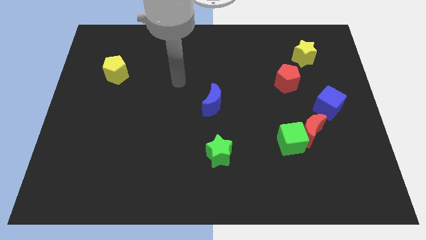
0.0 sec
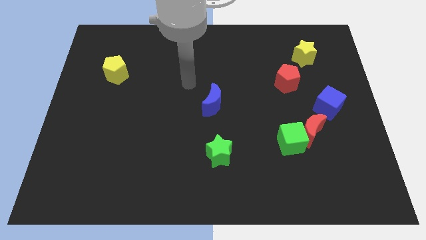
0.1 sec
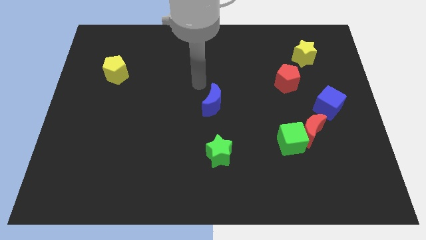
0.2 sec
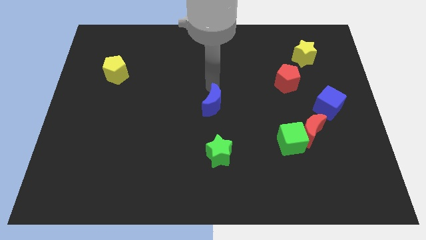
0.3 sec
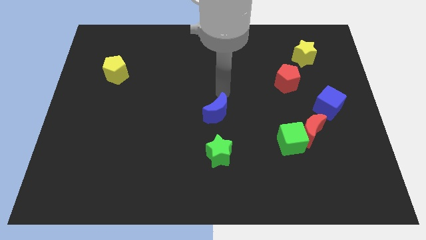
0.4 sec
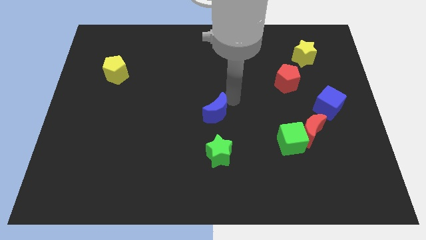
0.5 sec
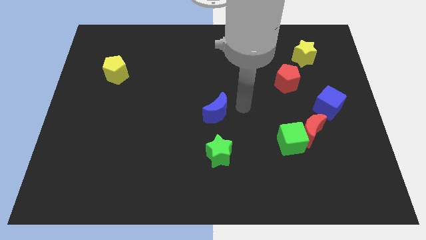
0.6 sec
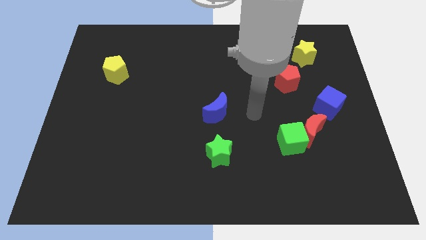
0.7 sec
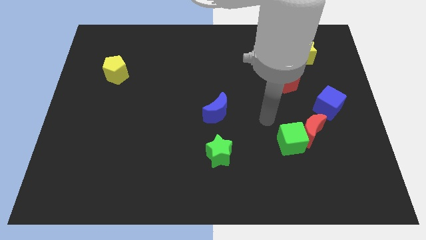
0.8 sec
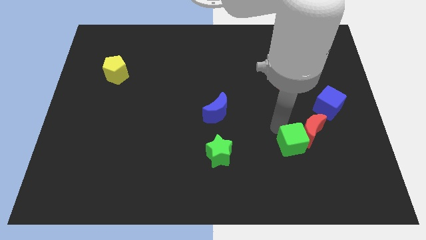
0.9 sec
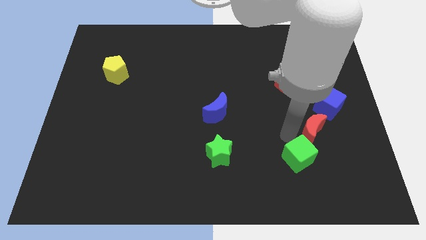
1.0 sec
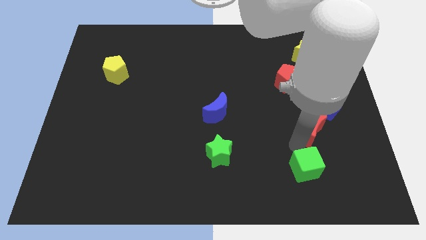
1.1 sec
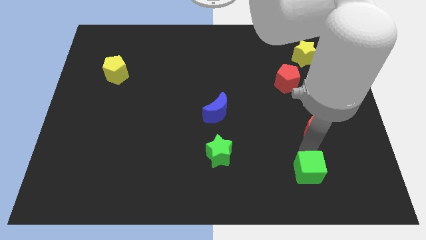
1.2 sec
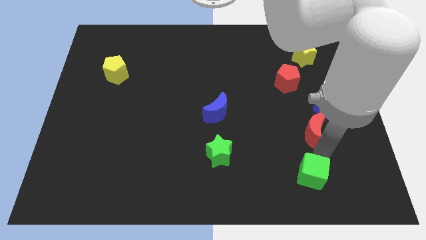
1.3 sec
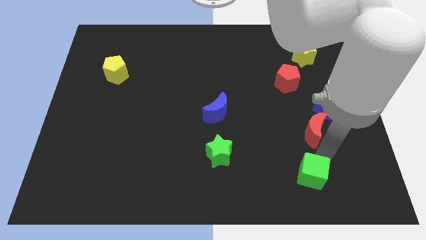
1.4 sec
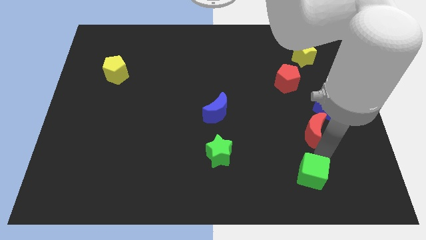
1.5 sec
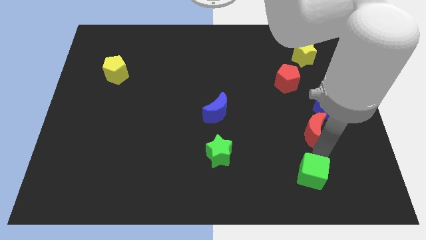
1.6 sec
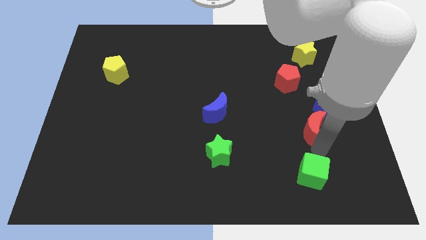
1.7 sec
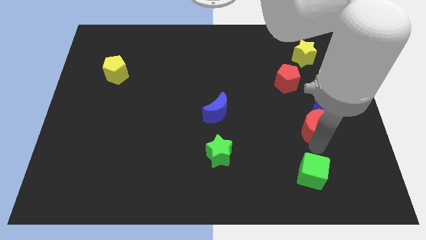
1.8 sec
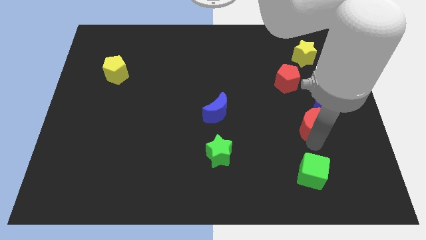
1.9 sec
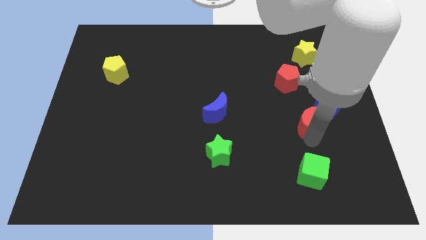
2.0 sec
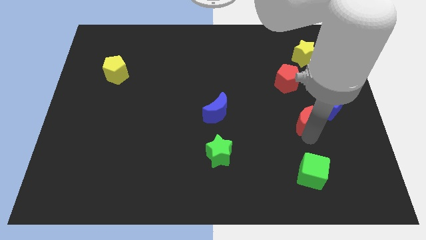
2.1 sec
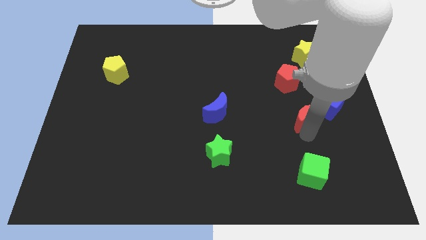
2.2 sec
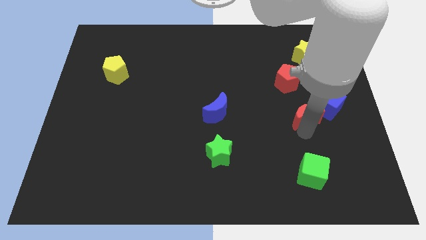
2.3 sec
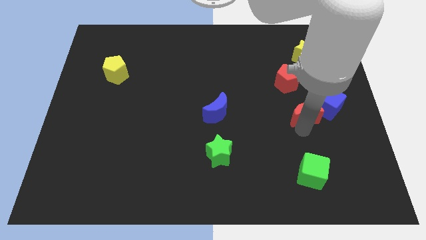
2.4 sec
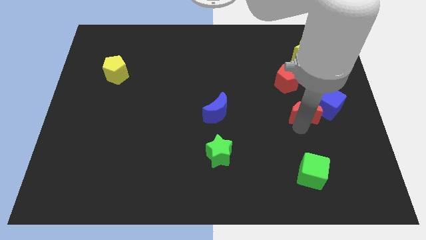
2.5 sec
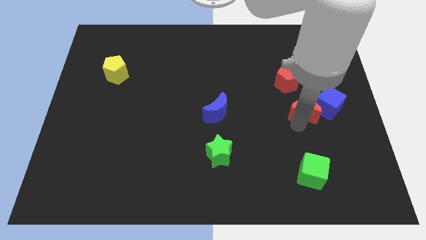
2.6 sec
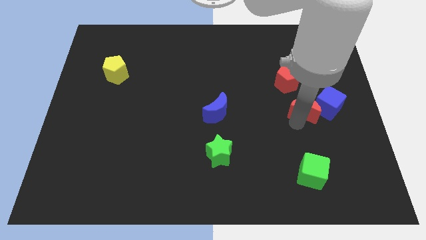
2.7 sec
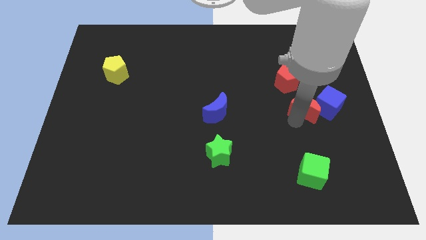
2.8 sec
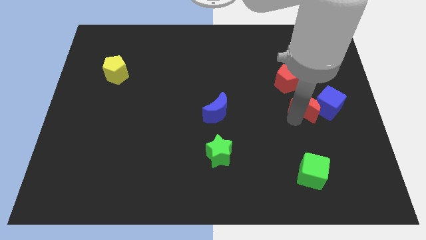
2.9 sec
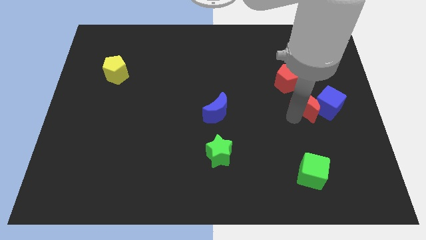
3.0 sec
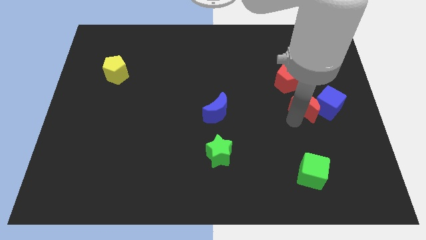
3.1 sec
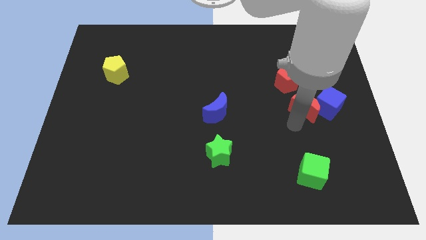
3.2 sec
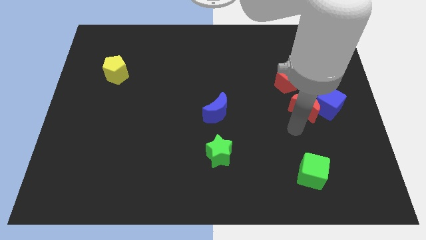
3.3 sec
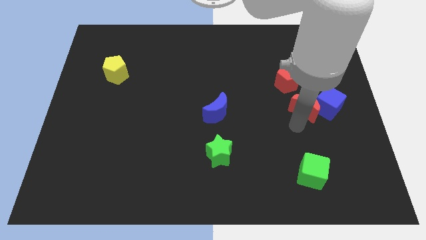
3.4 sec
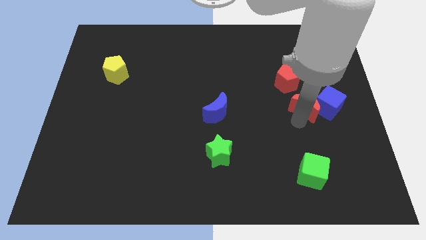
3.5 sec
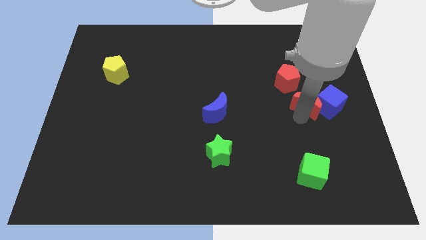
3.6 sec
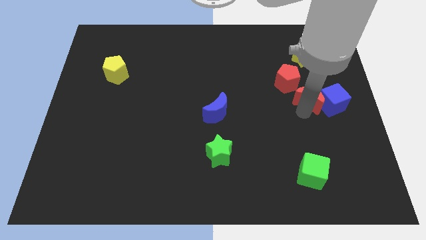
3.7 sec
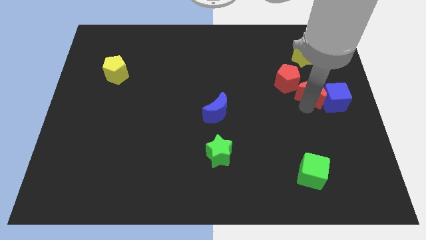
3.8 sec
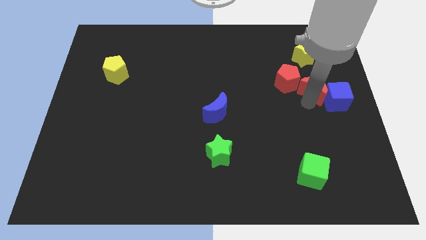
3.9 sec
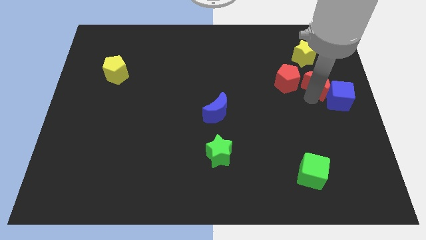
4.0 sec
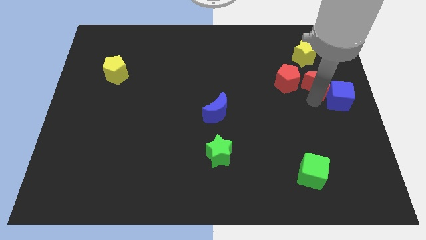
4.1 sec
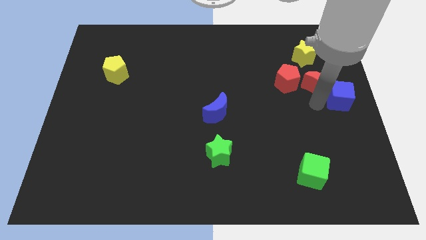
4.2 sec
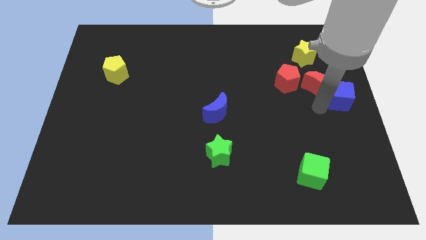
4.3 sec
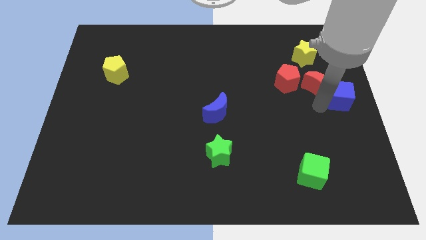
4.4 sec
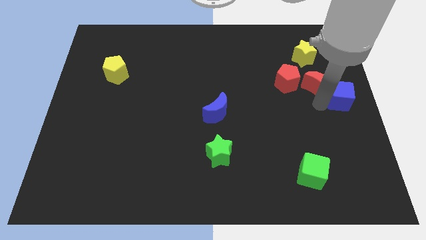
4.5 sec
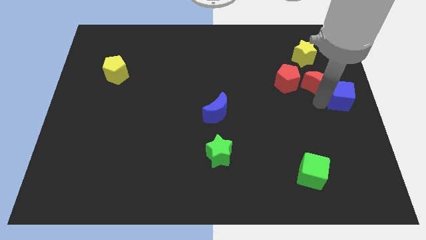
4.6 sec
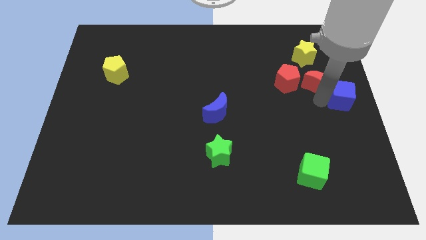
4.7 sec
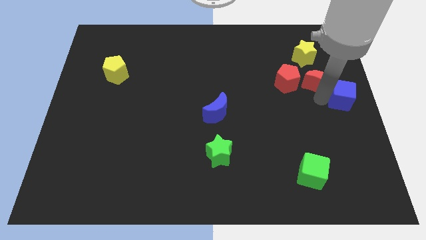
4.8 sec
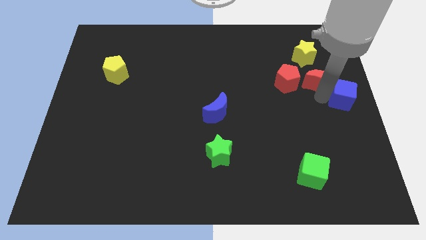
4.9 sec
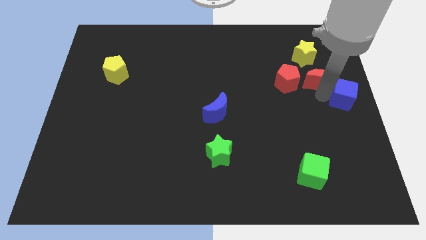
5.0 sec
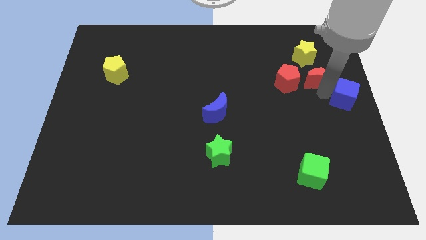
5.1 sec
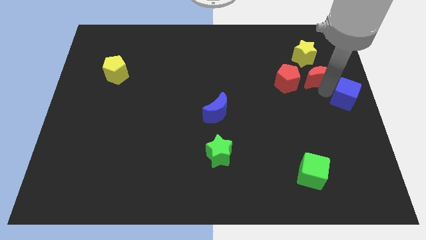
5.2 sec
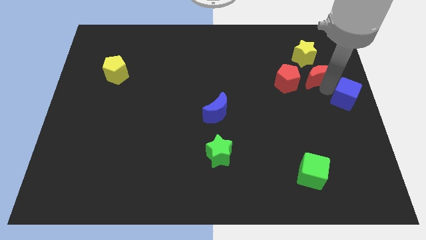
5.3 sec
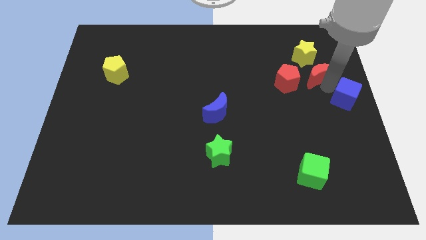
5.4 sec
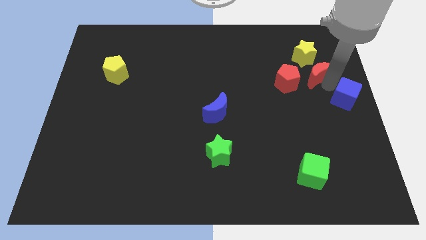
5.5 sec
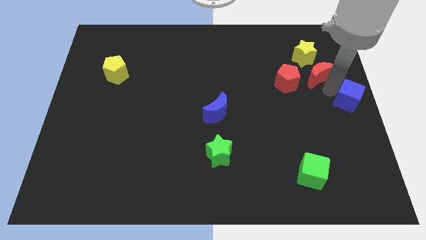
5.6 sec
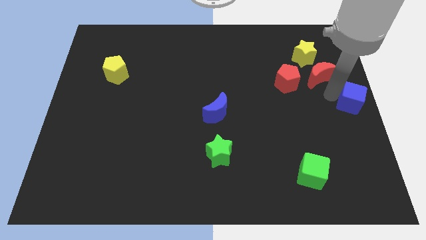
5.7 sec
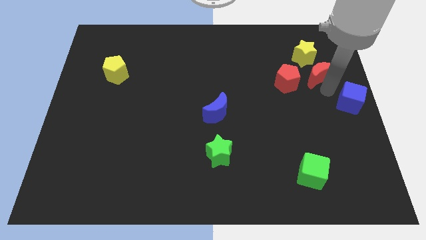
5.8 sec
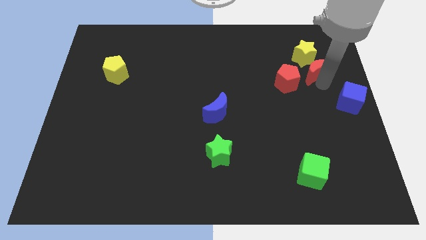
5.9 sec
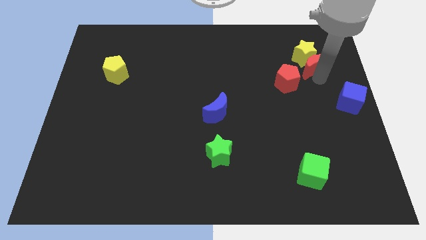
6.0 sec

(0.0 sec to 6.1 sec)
move the red moon close to the yellow star

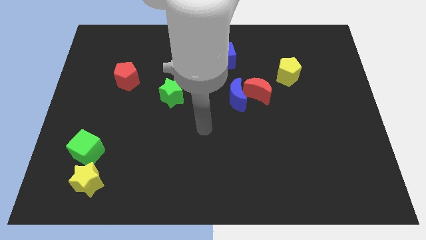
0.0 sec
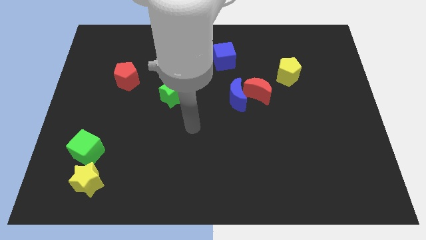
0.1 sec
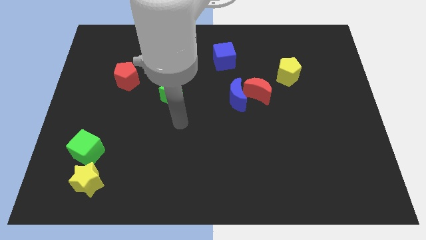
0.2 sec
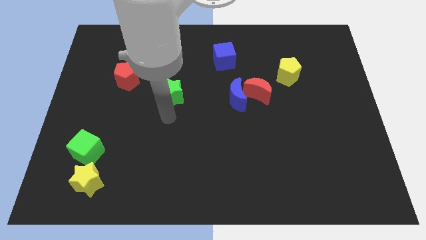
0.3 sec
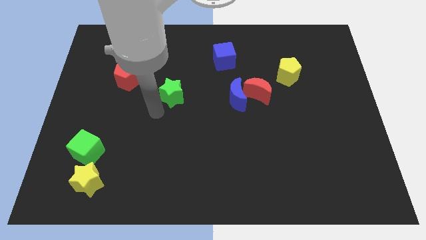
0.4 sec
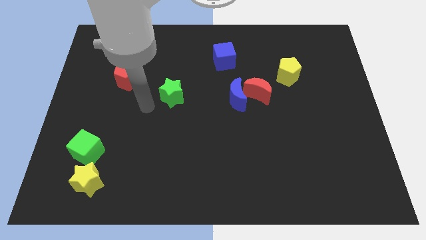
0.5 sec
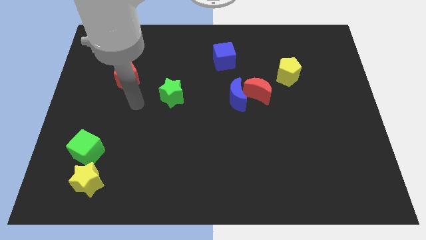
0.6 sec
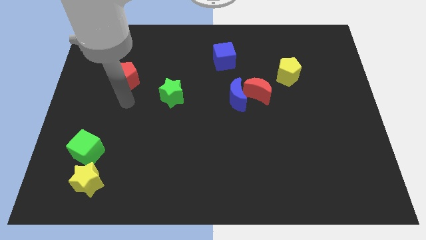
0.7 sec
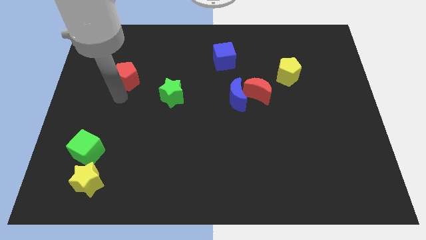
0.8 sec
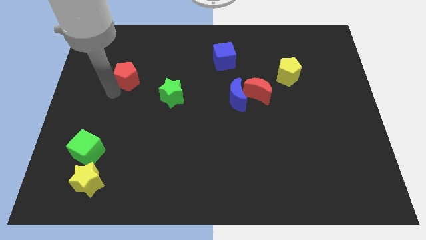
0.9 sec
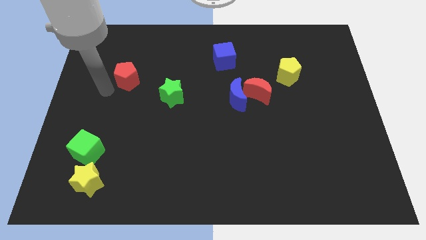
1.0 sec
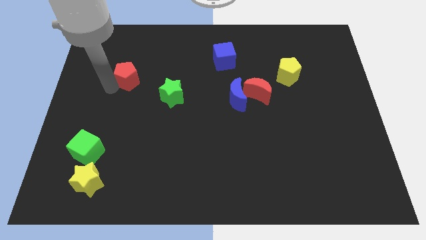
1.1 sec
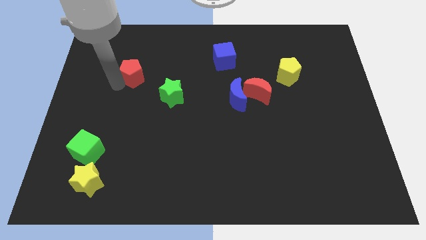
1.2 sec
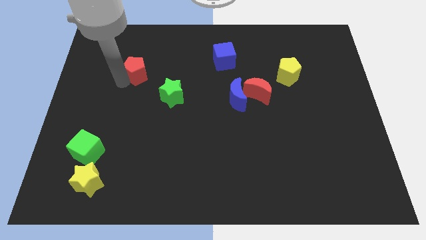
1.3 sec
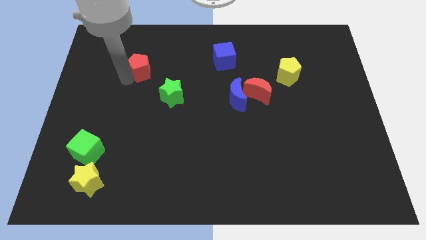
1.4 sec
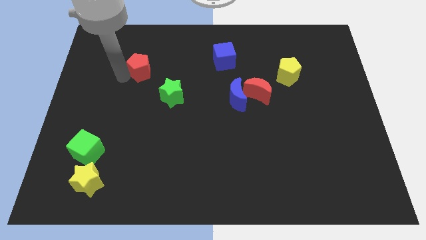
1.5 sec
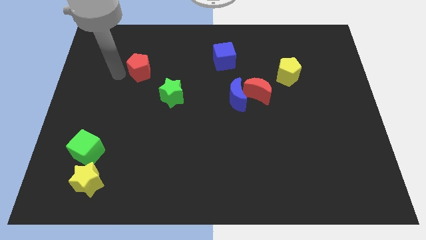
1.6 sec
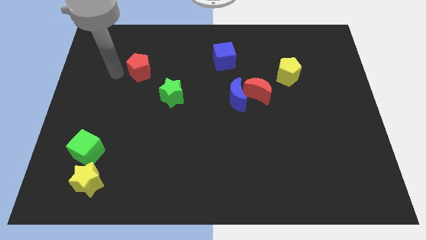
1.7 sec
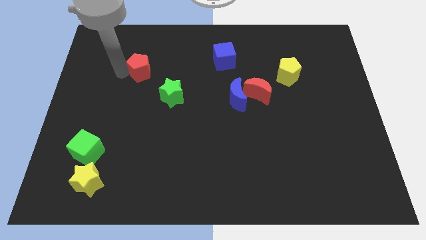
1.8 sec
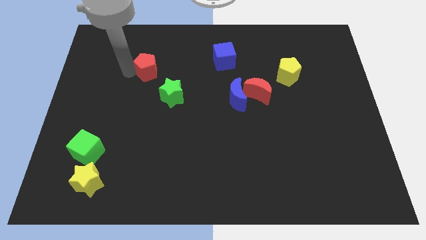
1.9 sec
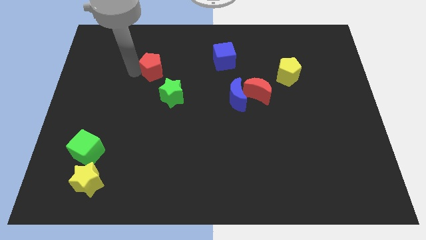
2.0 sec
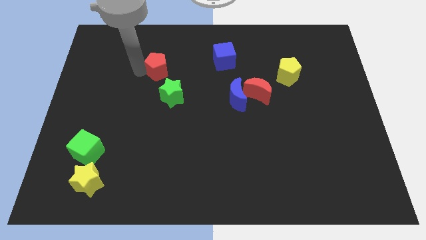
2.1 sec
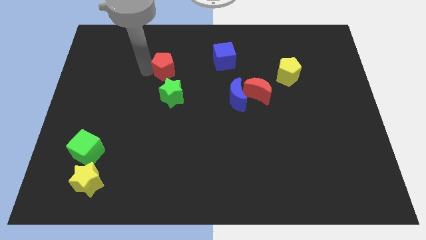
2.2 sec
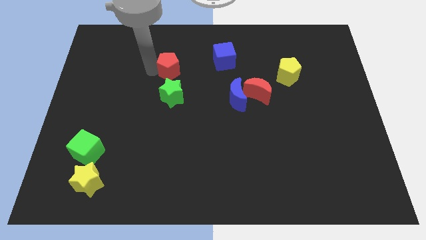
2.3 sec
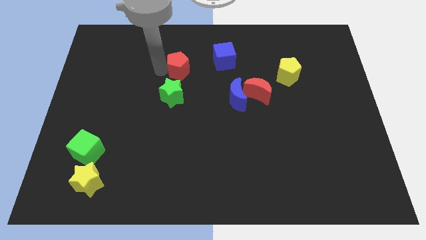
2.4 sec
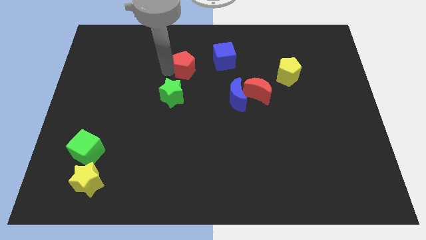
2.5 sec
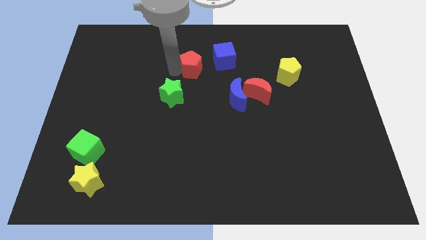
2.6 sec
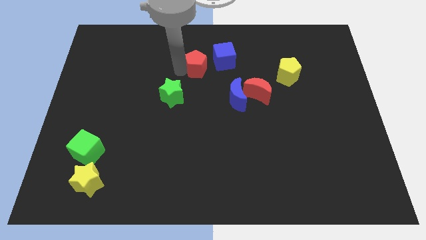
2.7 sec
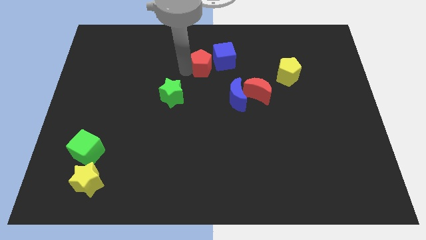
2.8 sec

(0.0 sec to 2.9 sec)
put the red pentagon next to the blue cube
